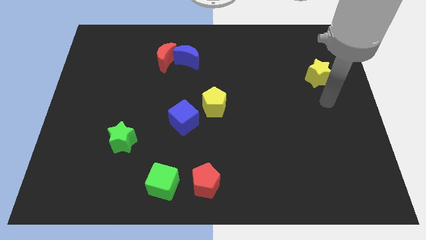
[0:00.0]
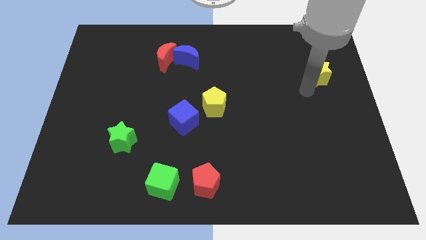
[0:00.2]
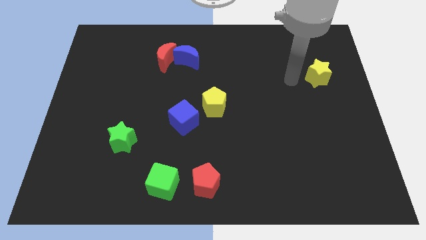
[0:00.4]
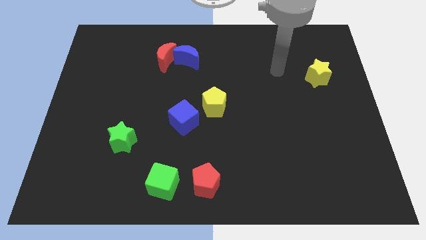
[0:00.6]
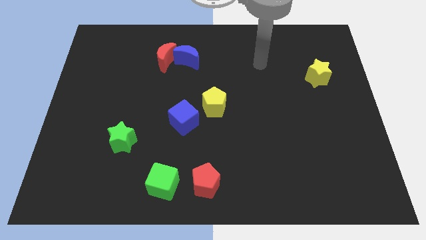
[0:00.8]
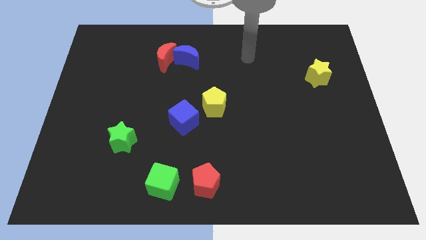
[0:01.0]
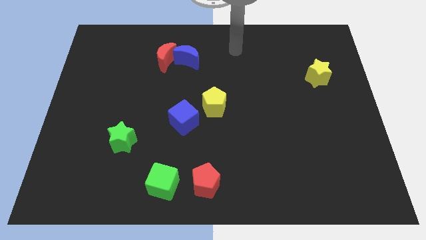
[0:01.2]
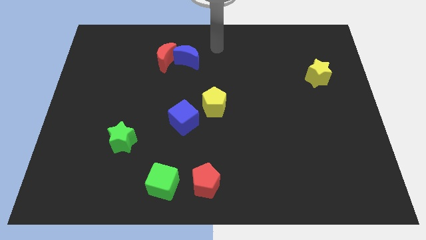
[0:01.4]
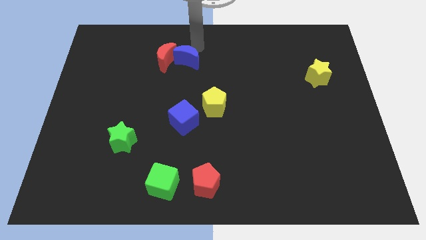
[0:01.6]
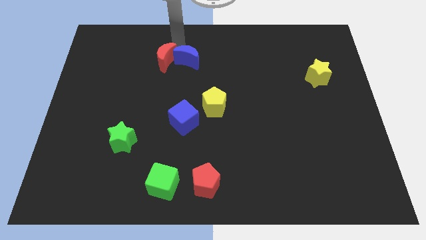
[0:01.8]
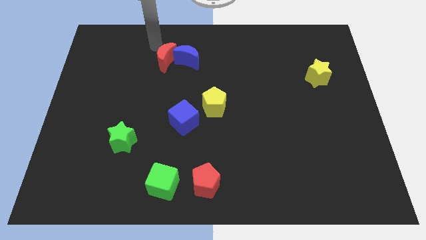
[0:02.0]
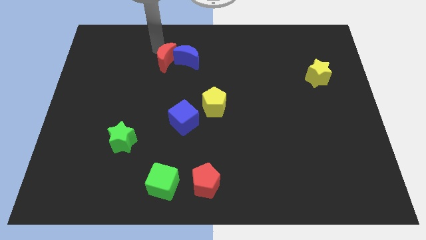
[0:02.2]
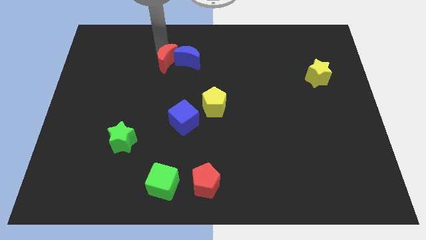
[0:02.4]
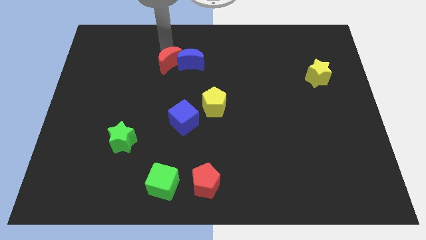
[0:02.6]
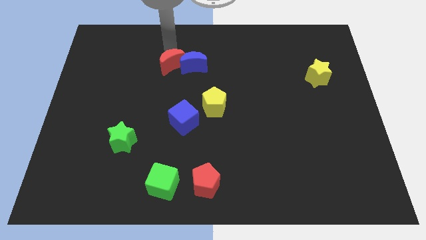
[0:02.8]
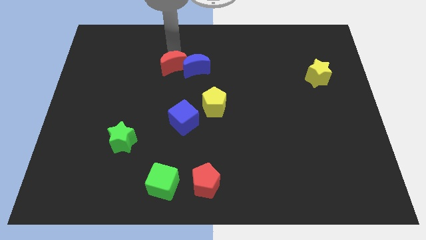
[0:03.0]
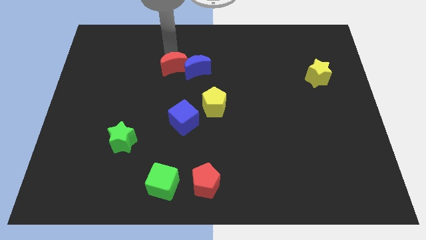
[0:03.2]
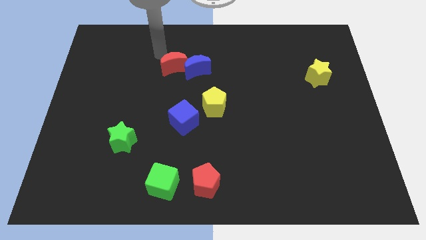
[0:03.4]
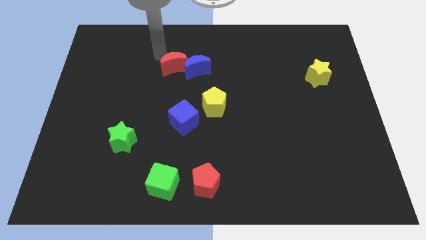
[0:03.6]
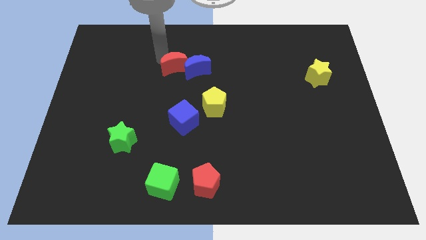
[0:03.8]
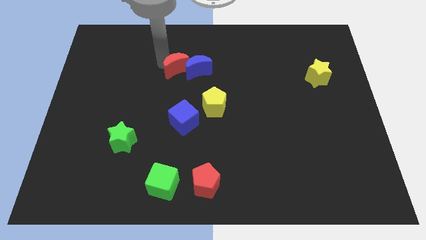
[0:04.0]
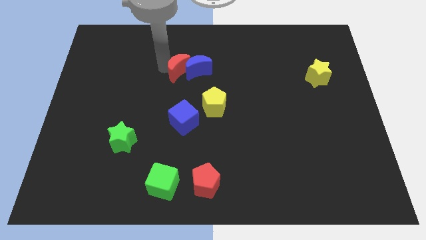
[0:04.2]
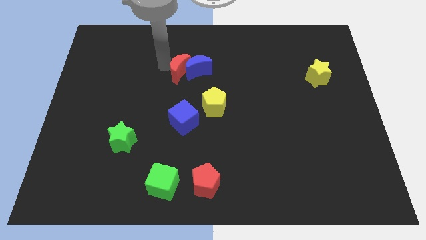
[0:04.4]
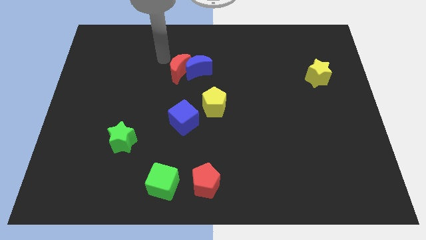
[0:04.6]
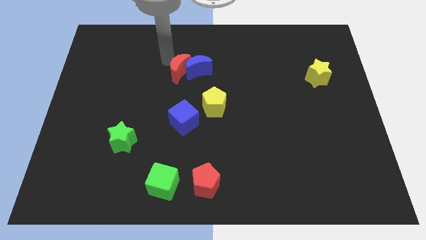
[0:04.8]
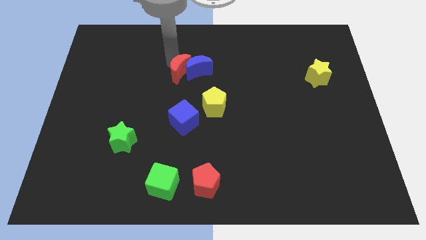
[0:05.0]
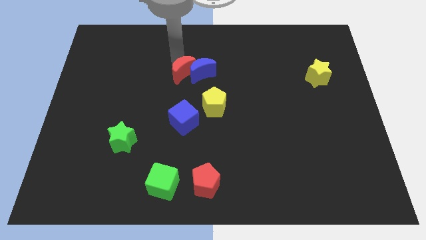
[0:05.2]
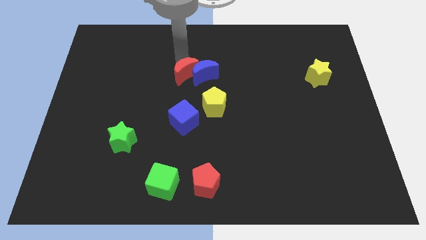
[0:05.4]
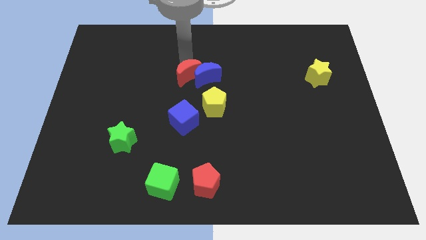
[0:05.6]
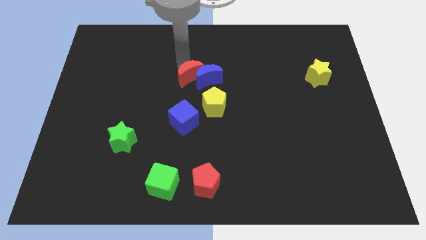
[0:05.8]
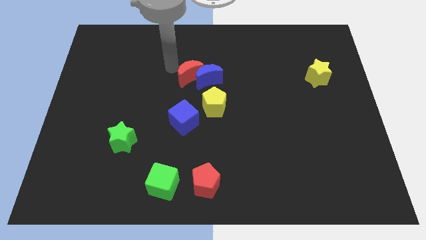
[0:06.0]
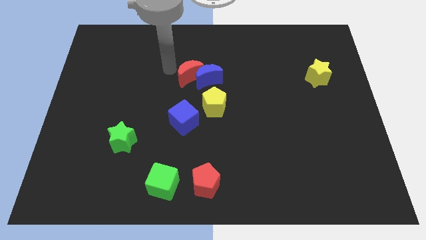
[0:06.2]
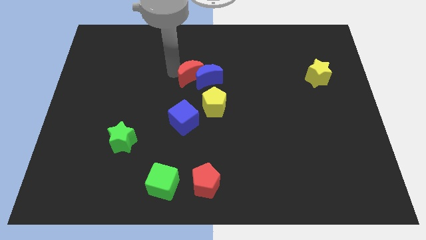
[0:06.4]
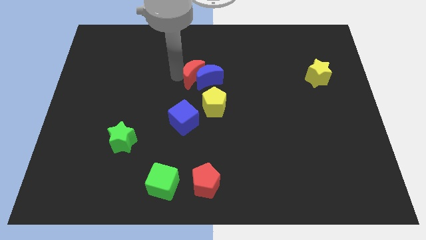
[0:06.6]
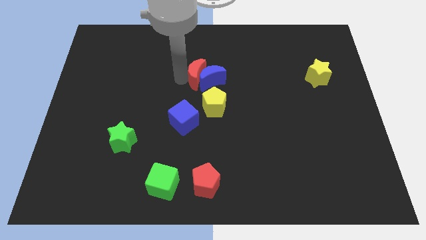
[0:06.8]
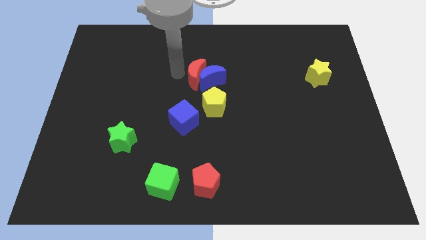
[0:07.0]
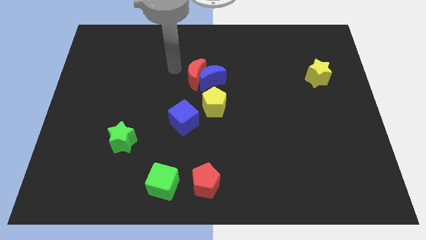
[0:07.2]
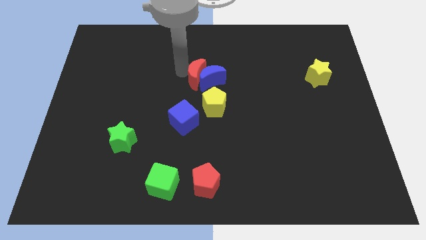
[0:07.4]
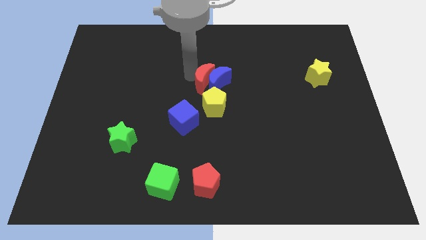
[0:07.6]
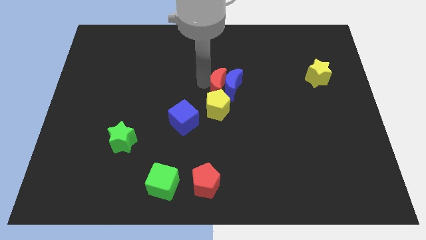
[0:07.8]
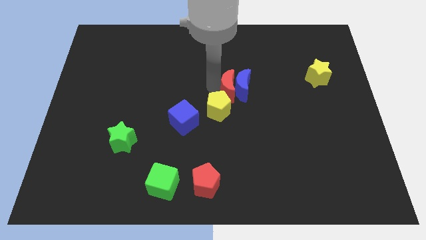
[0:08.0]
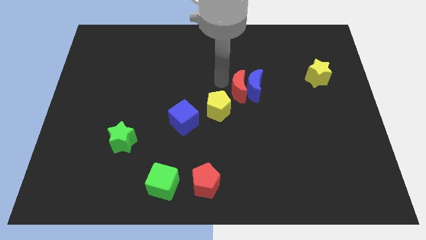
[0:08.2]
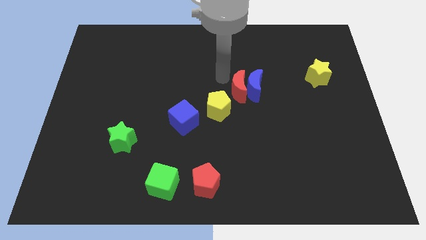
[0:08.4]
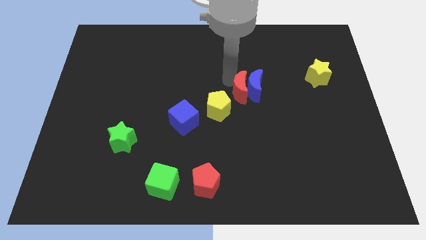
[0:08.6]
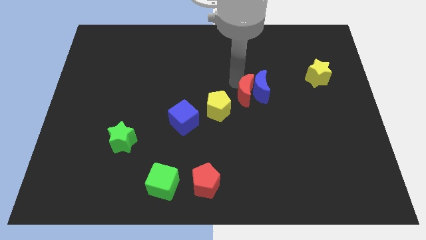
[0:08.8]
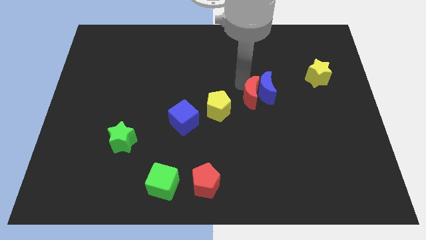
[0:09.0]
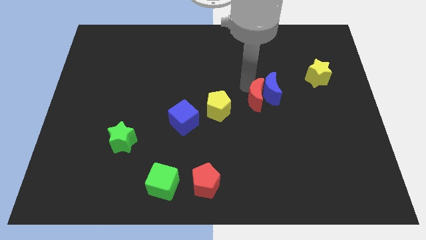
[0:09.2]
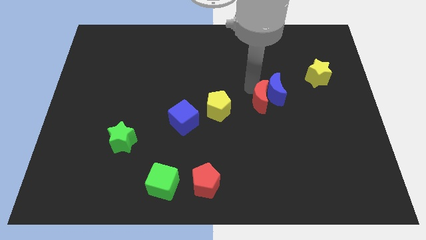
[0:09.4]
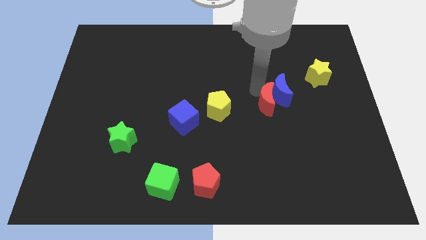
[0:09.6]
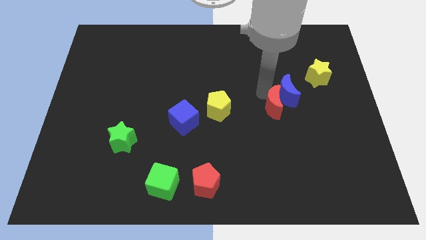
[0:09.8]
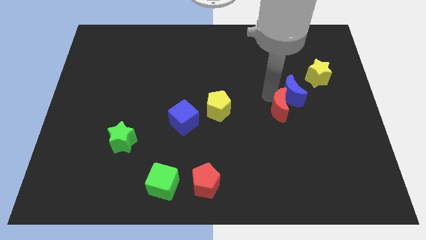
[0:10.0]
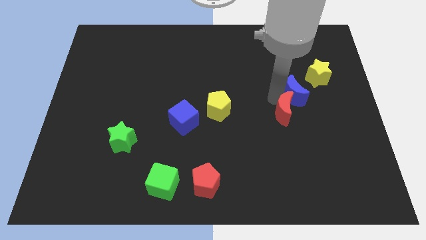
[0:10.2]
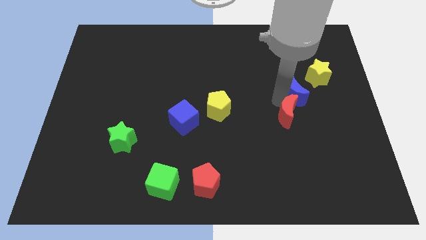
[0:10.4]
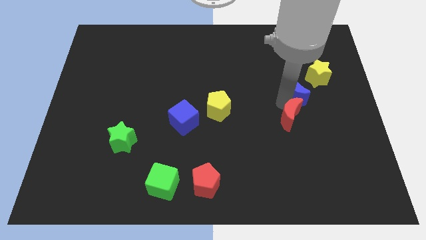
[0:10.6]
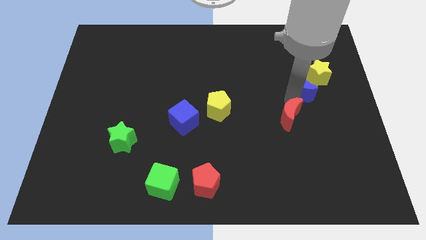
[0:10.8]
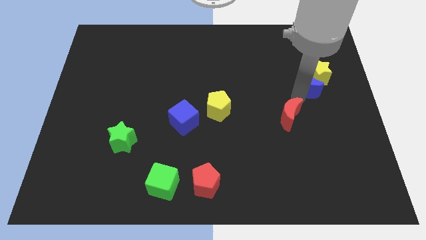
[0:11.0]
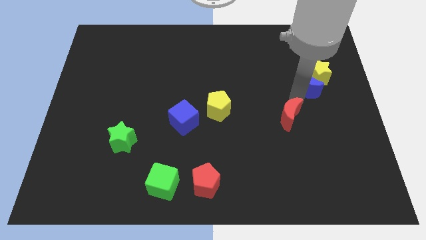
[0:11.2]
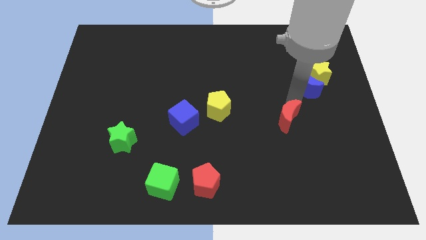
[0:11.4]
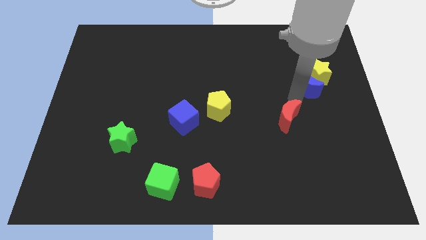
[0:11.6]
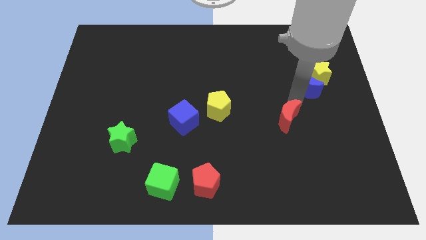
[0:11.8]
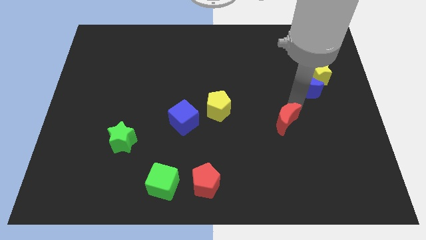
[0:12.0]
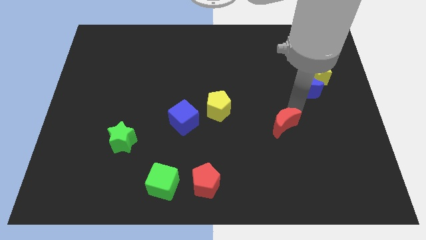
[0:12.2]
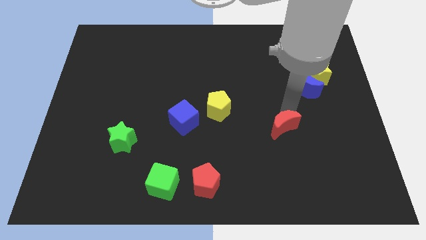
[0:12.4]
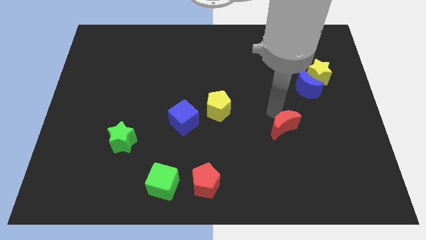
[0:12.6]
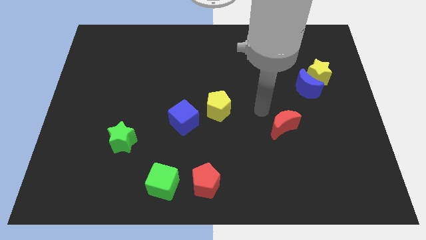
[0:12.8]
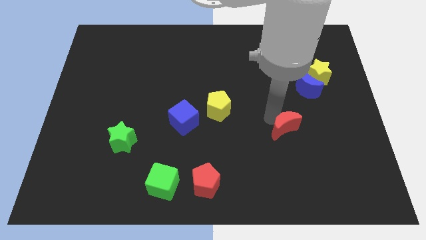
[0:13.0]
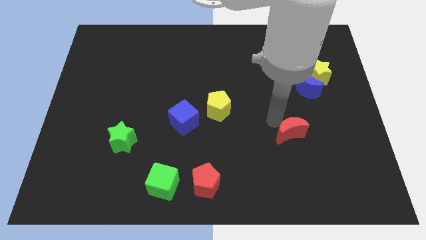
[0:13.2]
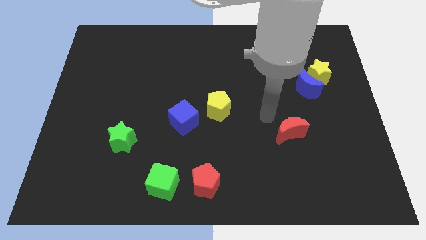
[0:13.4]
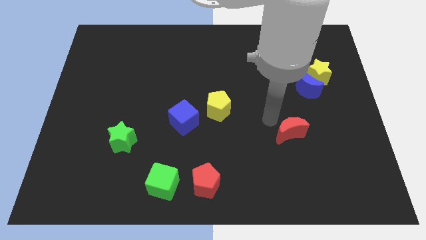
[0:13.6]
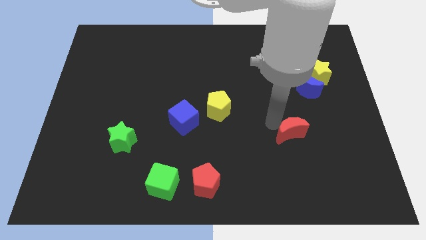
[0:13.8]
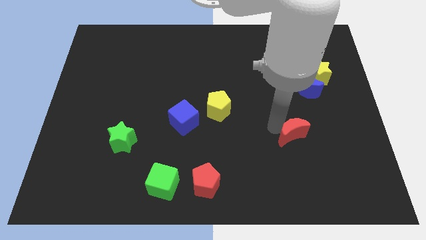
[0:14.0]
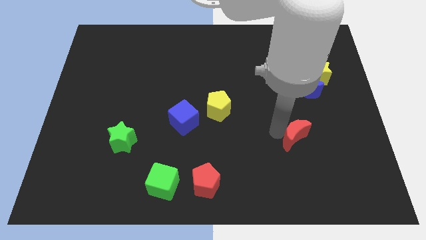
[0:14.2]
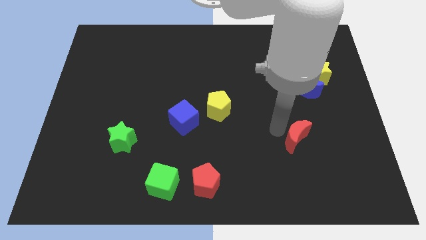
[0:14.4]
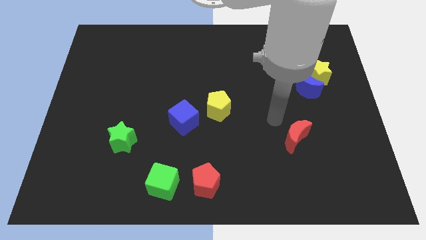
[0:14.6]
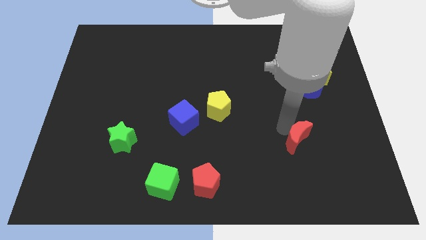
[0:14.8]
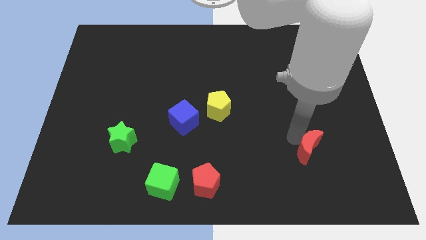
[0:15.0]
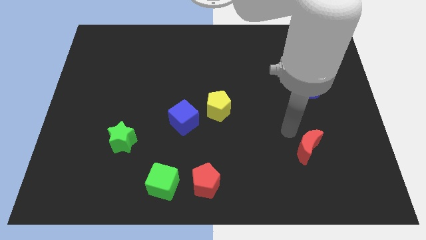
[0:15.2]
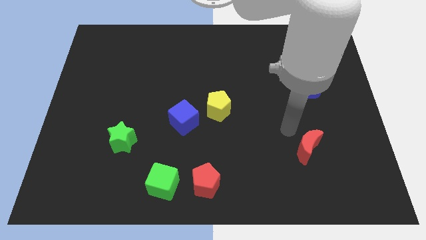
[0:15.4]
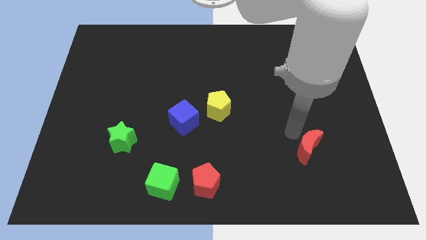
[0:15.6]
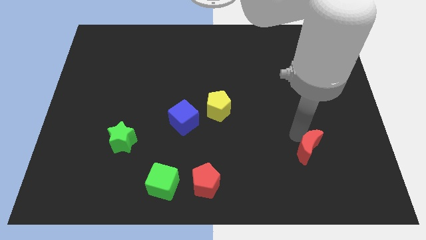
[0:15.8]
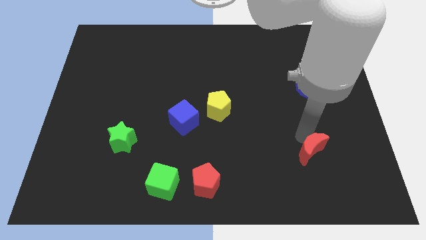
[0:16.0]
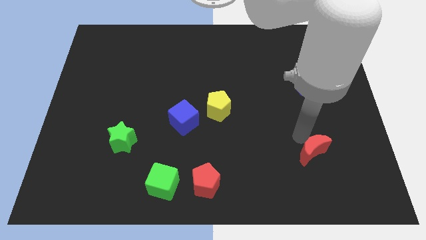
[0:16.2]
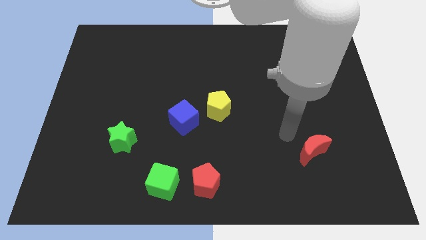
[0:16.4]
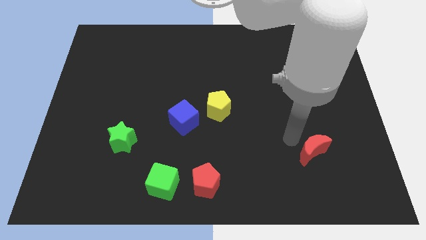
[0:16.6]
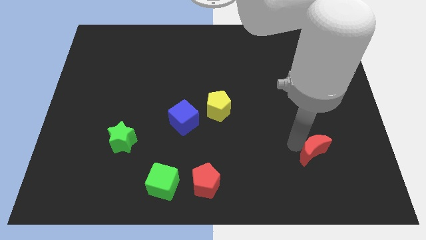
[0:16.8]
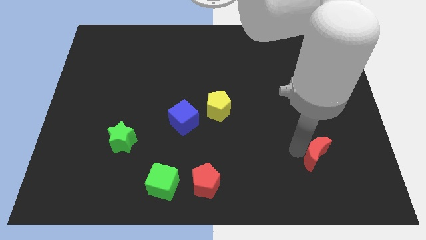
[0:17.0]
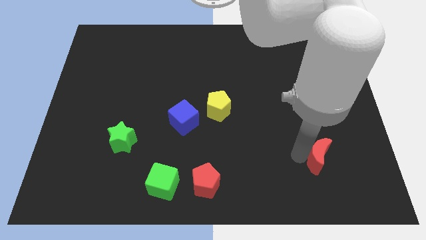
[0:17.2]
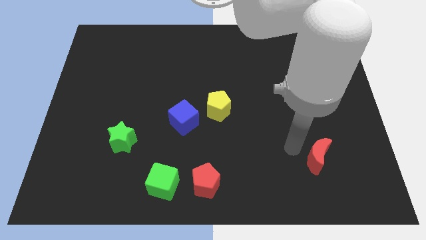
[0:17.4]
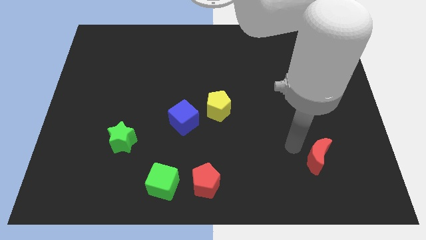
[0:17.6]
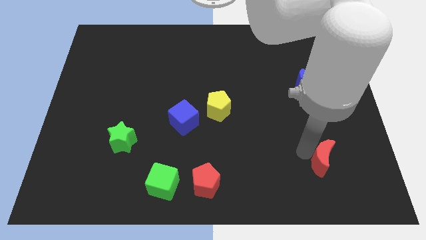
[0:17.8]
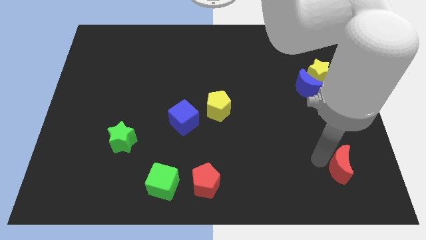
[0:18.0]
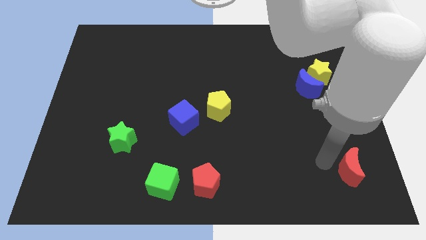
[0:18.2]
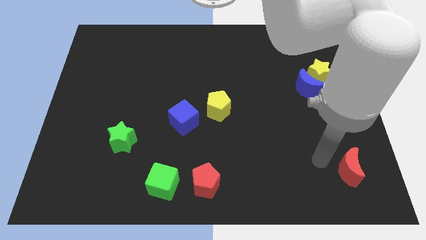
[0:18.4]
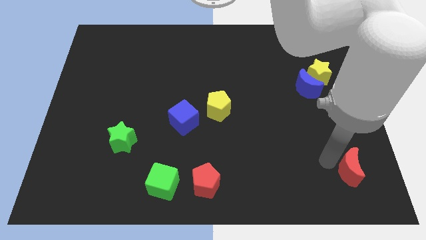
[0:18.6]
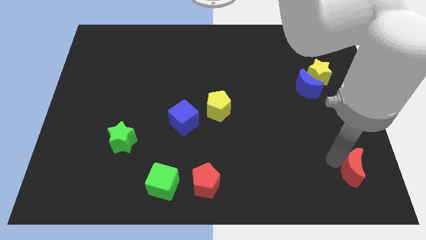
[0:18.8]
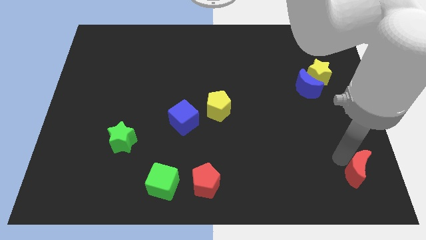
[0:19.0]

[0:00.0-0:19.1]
put the red moon to the bottom right of the board
